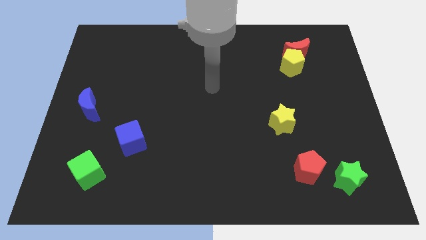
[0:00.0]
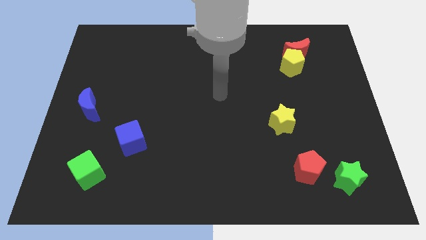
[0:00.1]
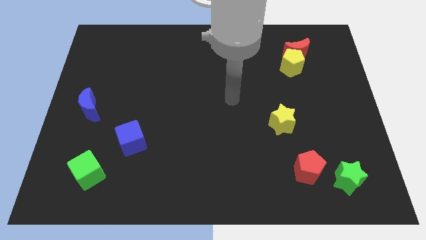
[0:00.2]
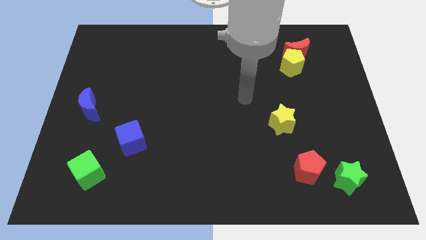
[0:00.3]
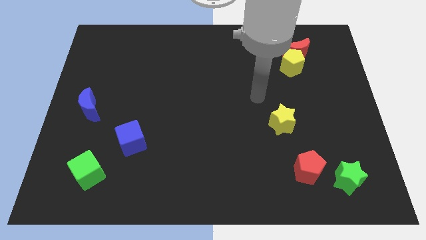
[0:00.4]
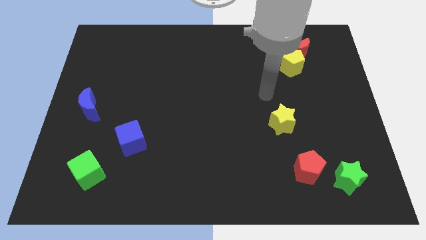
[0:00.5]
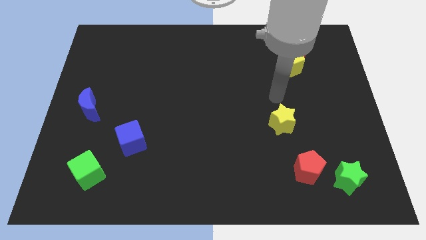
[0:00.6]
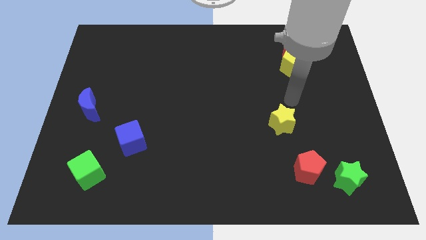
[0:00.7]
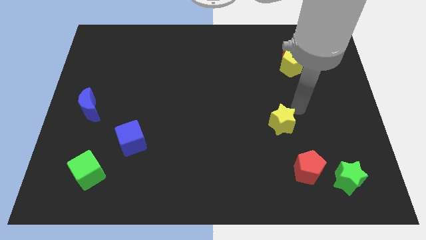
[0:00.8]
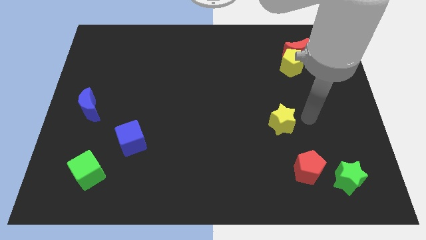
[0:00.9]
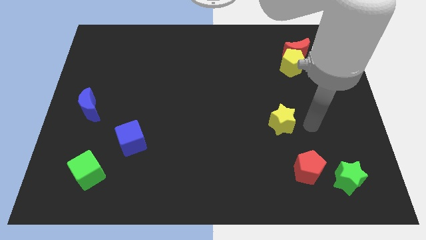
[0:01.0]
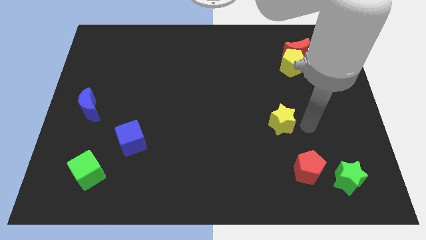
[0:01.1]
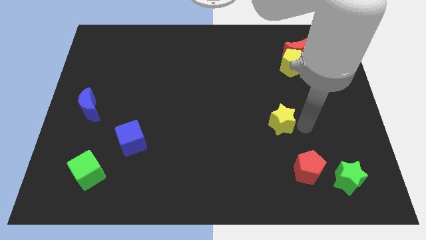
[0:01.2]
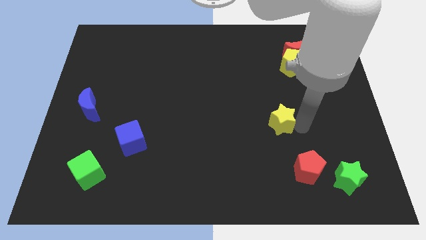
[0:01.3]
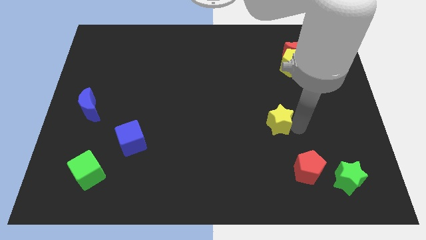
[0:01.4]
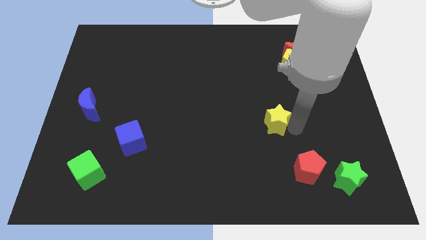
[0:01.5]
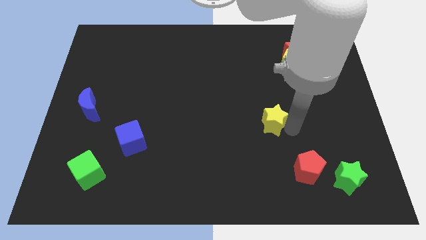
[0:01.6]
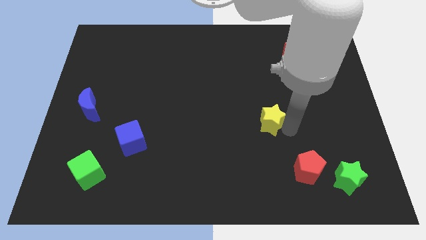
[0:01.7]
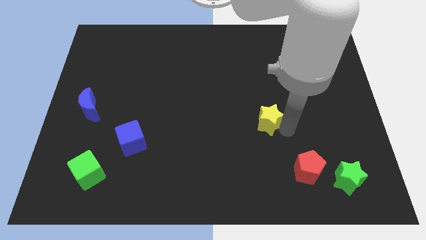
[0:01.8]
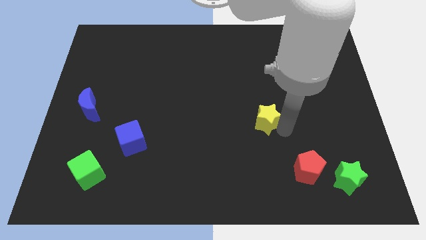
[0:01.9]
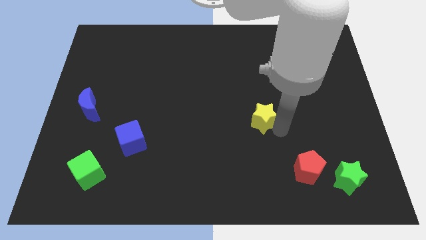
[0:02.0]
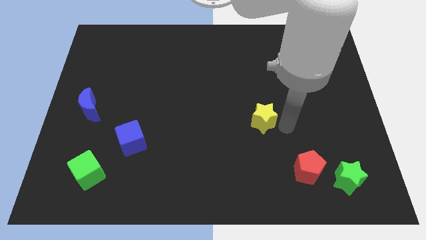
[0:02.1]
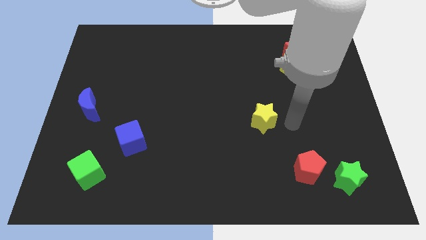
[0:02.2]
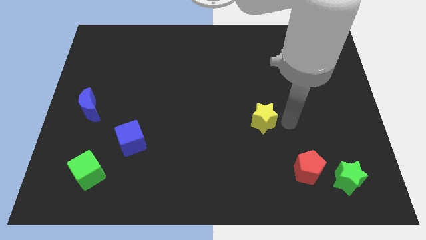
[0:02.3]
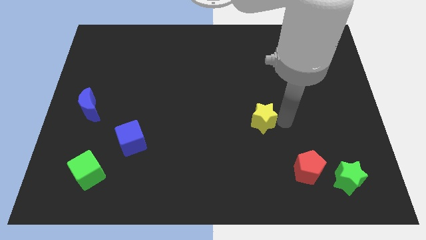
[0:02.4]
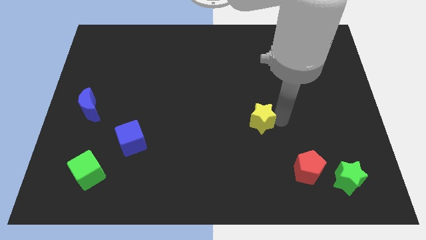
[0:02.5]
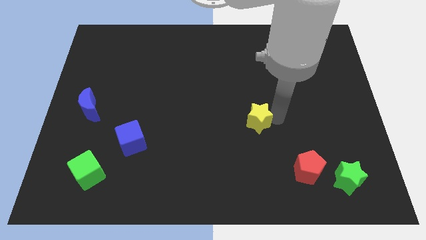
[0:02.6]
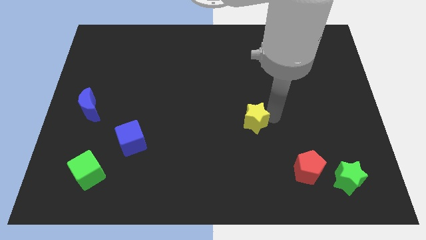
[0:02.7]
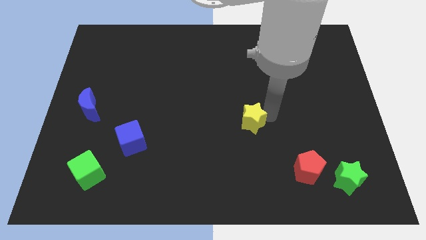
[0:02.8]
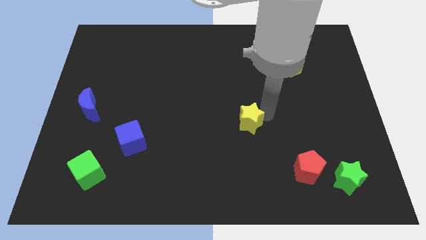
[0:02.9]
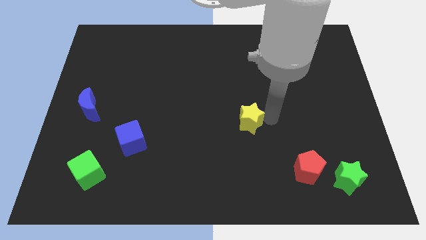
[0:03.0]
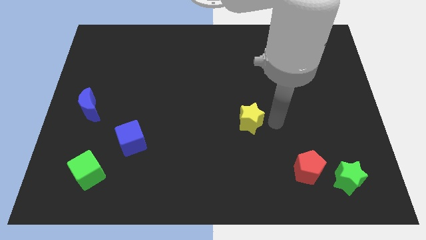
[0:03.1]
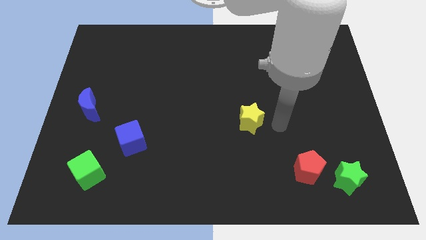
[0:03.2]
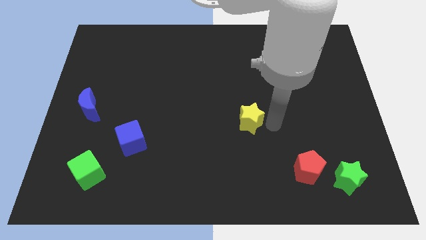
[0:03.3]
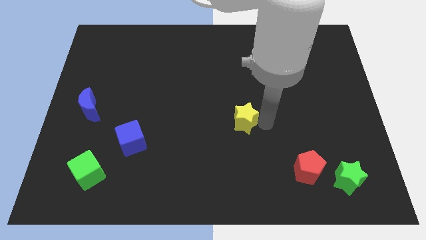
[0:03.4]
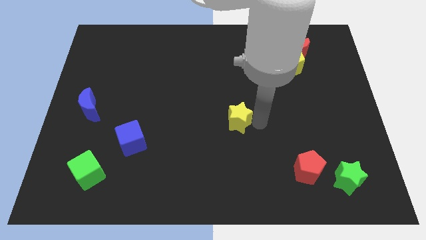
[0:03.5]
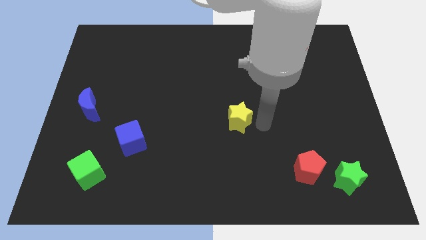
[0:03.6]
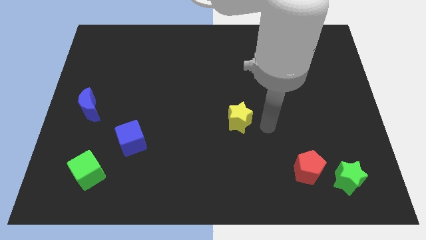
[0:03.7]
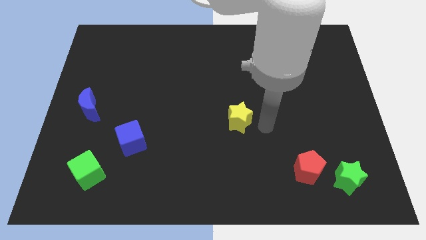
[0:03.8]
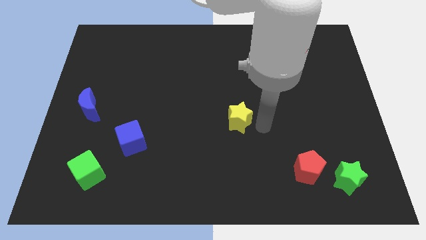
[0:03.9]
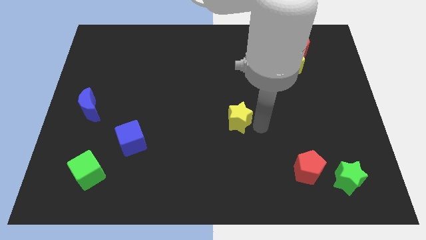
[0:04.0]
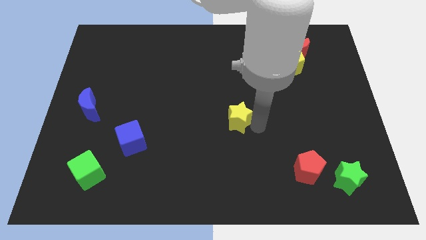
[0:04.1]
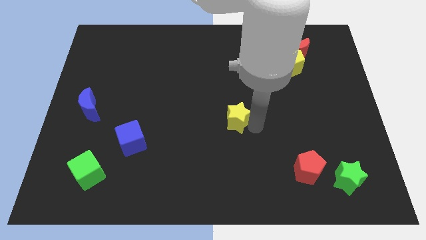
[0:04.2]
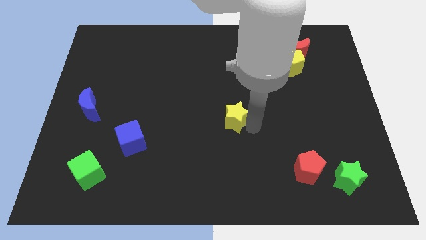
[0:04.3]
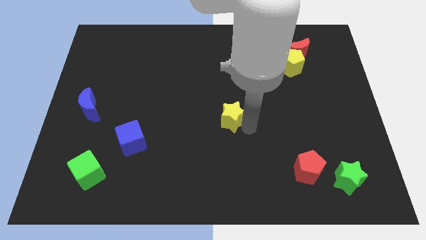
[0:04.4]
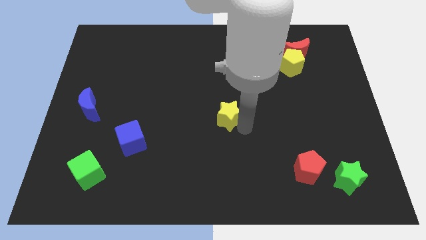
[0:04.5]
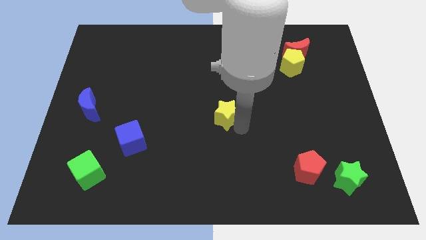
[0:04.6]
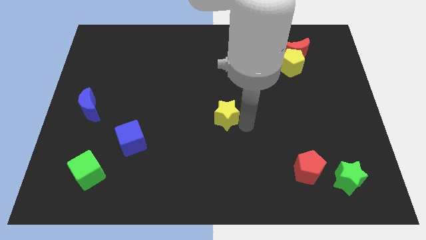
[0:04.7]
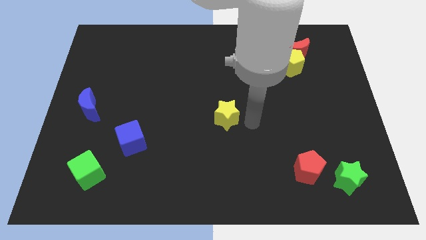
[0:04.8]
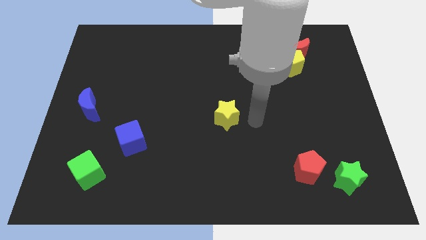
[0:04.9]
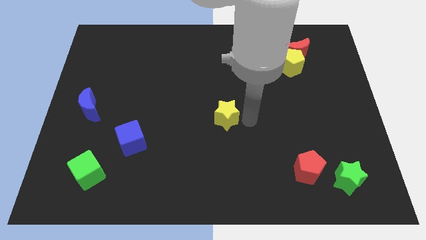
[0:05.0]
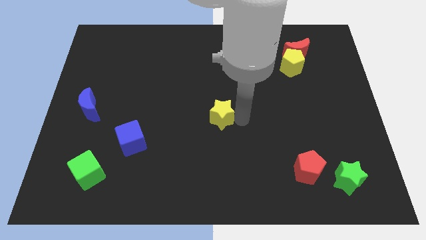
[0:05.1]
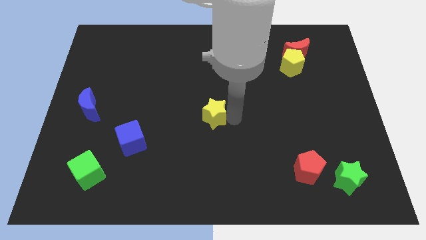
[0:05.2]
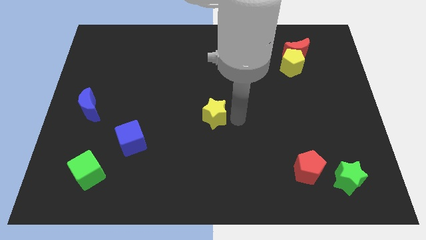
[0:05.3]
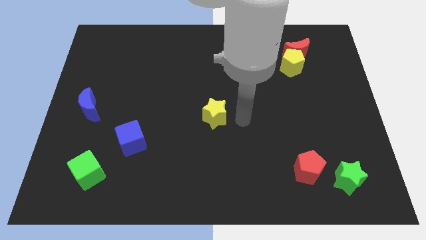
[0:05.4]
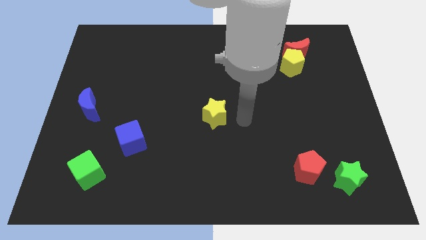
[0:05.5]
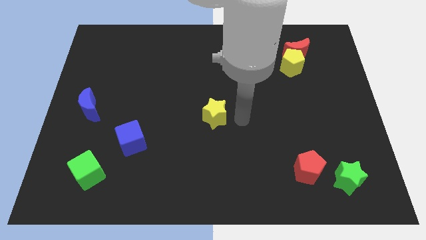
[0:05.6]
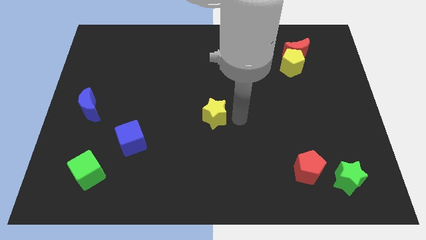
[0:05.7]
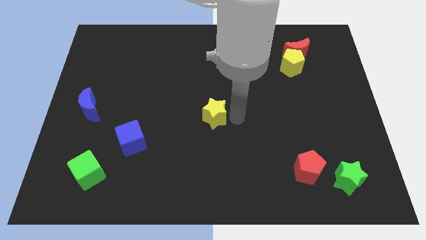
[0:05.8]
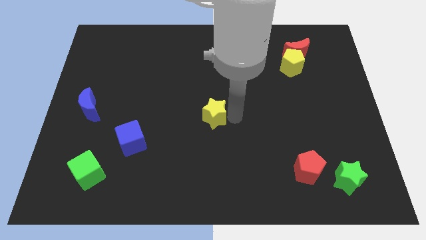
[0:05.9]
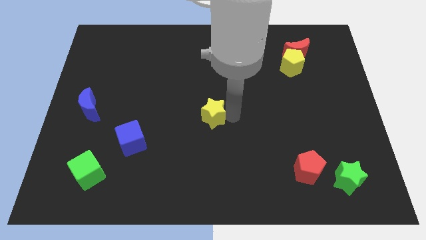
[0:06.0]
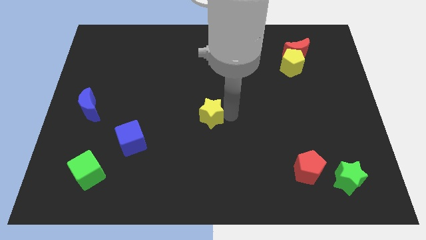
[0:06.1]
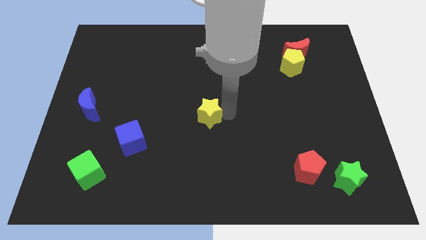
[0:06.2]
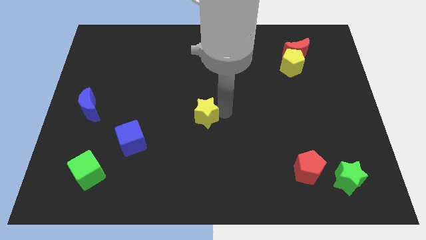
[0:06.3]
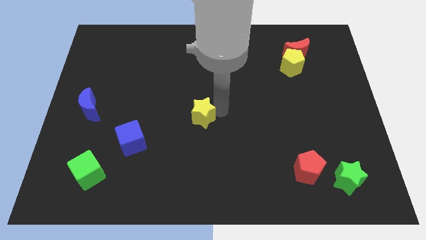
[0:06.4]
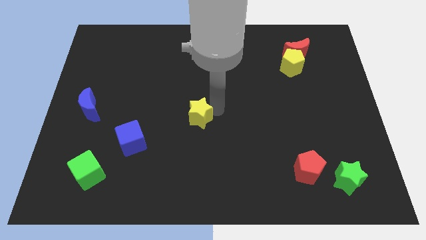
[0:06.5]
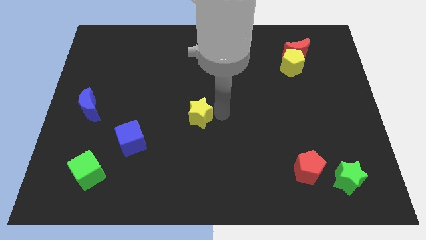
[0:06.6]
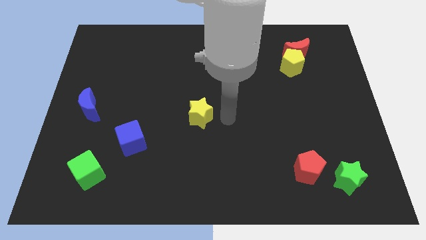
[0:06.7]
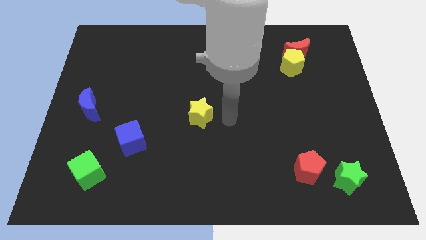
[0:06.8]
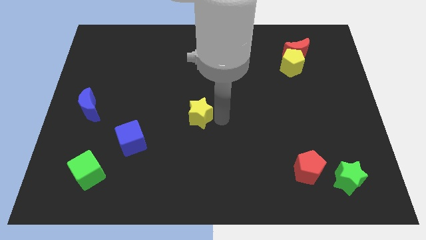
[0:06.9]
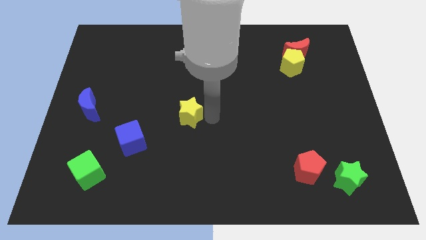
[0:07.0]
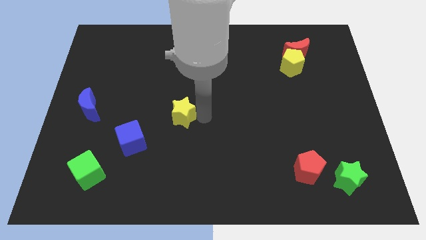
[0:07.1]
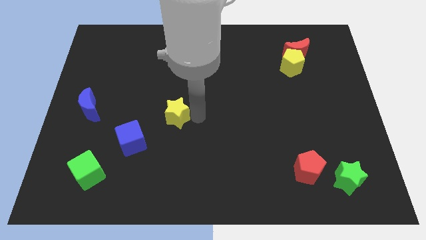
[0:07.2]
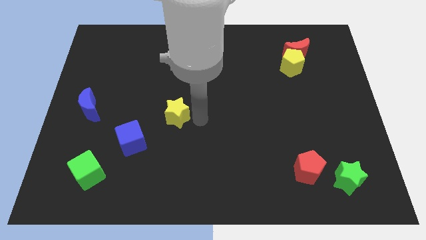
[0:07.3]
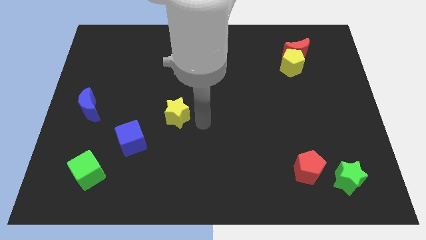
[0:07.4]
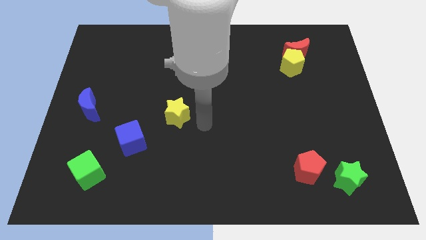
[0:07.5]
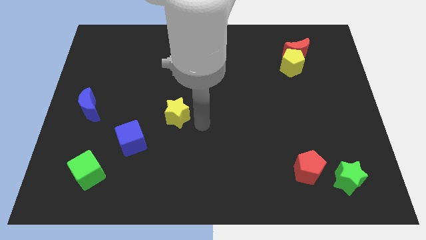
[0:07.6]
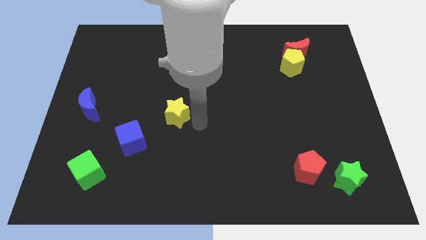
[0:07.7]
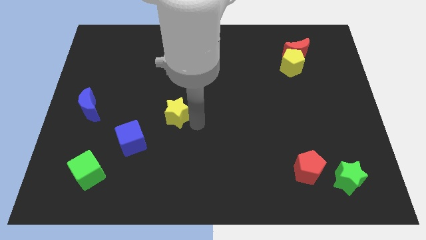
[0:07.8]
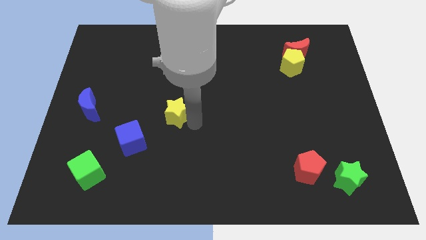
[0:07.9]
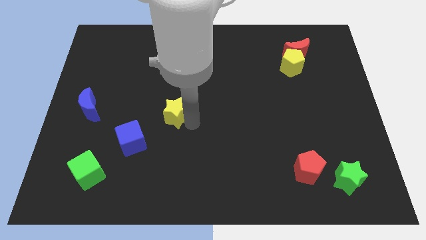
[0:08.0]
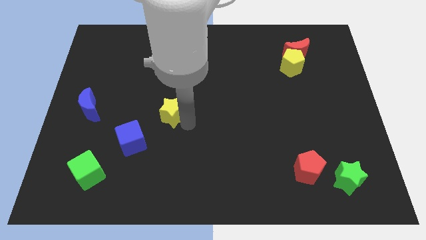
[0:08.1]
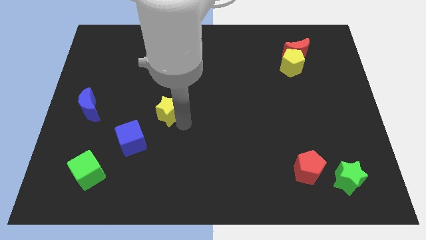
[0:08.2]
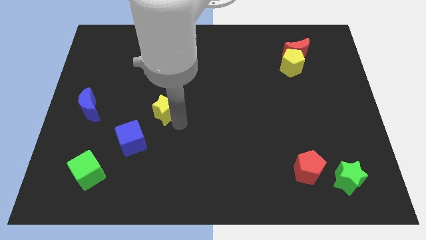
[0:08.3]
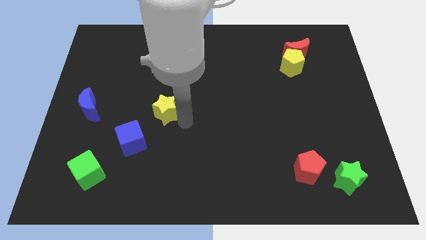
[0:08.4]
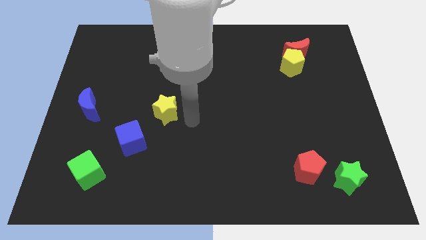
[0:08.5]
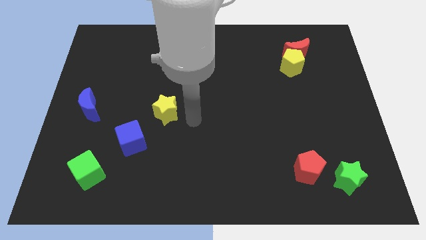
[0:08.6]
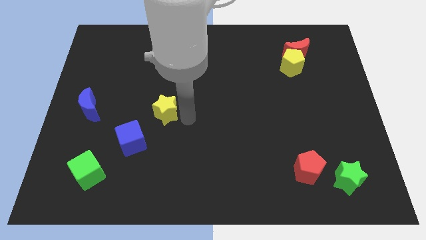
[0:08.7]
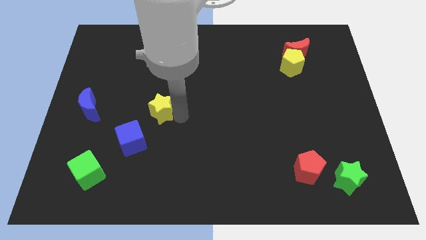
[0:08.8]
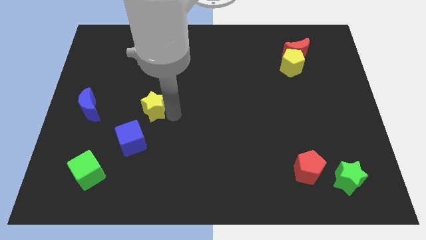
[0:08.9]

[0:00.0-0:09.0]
put the yellow star to the top side of the blue cube
